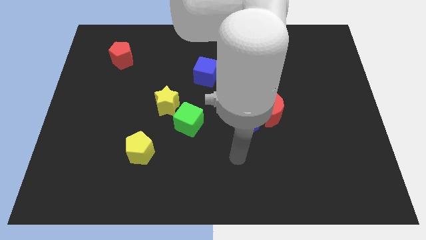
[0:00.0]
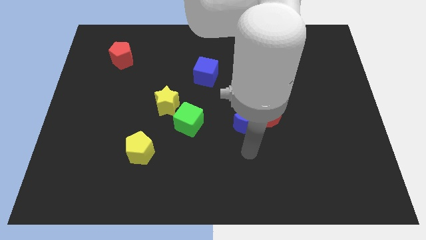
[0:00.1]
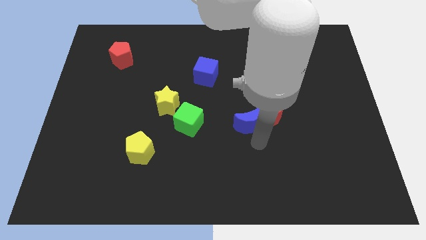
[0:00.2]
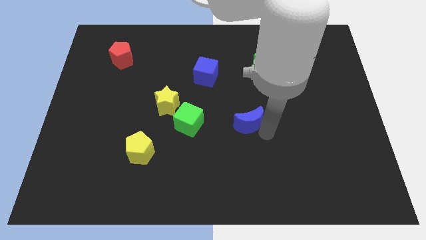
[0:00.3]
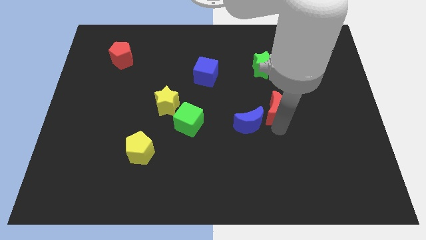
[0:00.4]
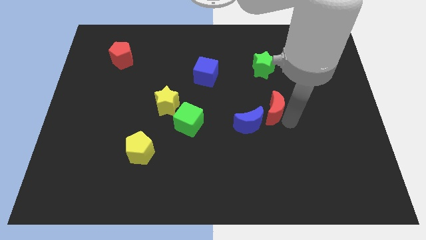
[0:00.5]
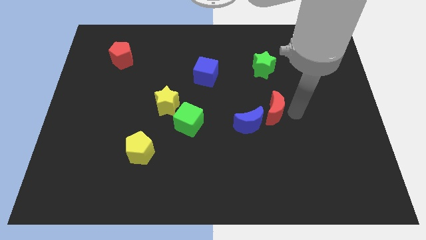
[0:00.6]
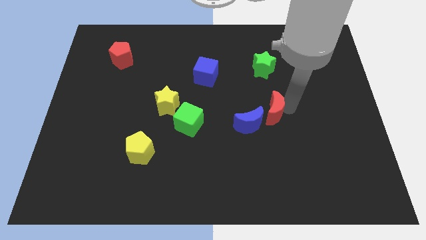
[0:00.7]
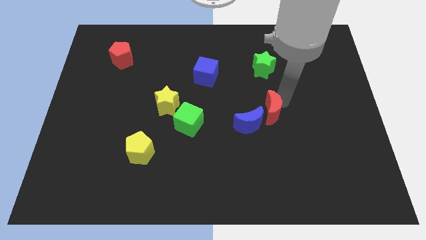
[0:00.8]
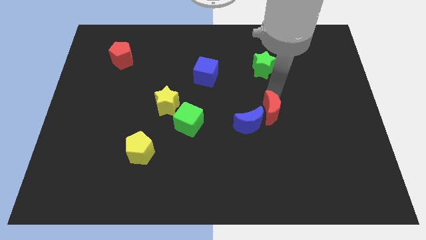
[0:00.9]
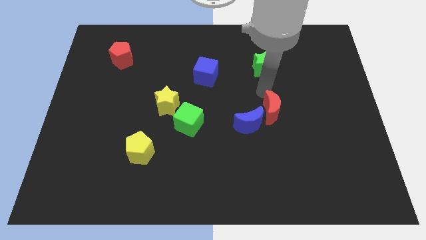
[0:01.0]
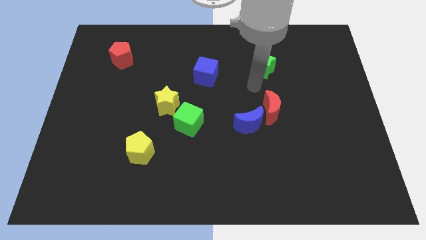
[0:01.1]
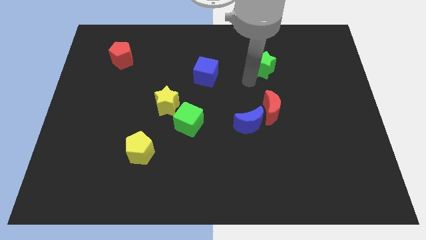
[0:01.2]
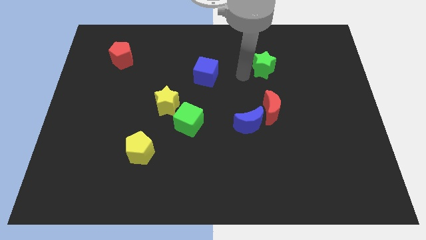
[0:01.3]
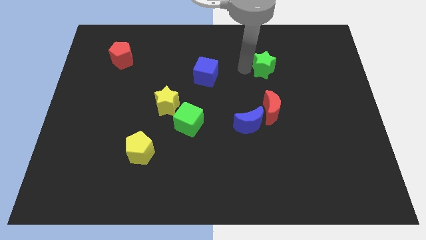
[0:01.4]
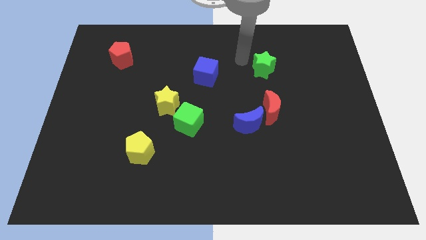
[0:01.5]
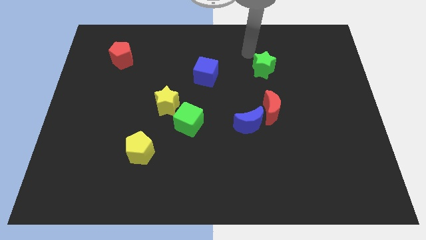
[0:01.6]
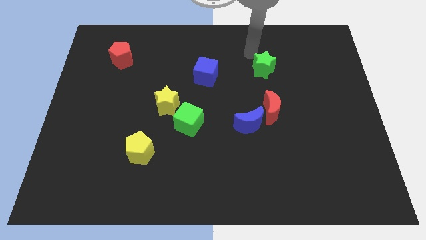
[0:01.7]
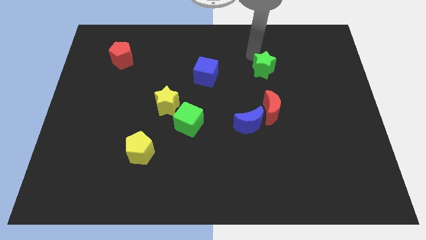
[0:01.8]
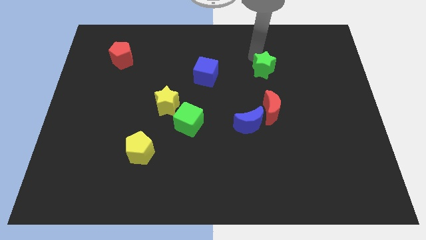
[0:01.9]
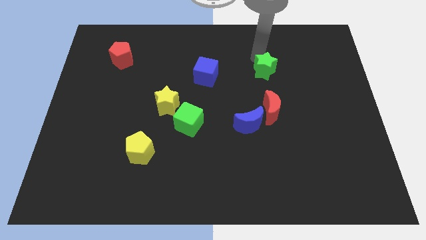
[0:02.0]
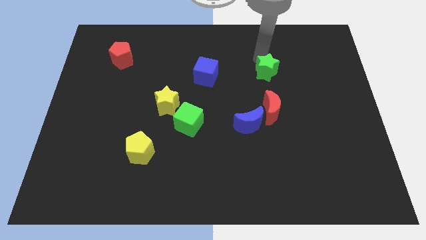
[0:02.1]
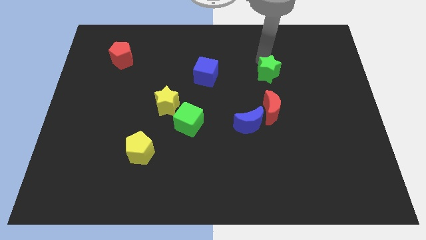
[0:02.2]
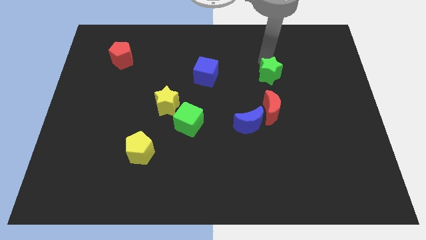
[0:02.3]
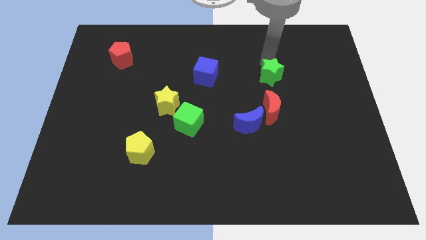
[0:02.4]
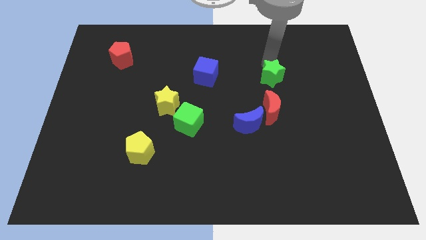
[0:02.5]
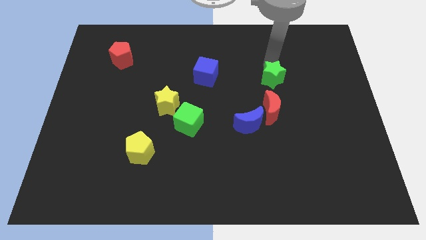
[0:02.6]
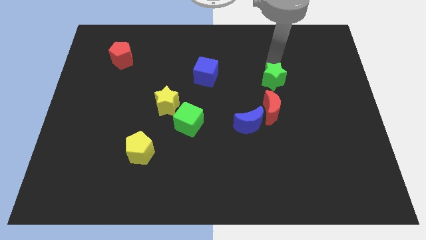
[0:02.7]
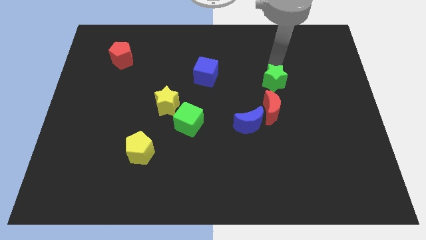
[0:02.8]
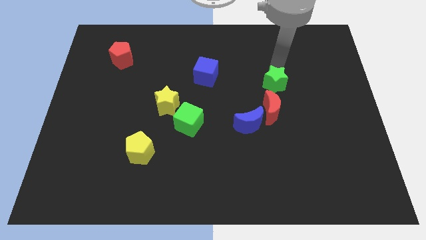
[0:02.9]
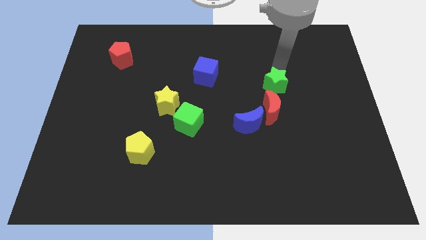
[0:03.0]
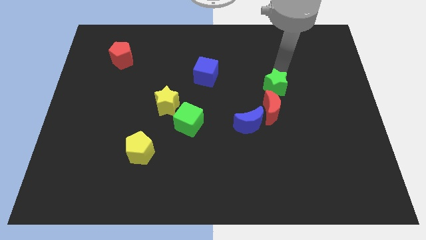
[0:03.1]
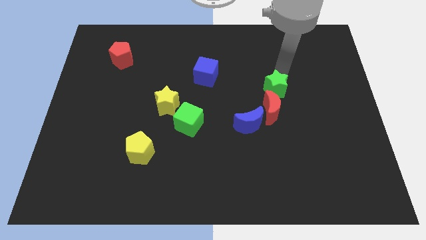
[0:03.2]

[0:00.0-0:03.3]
push the green star downwards slightly

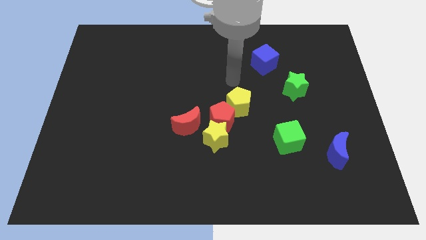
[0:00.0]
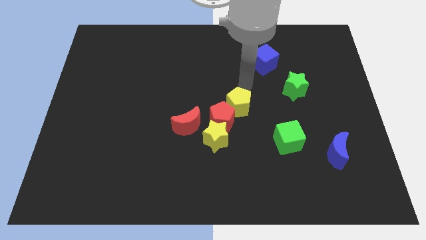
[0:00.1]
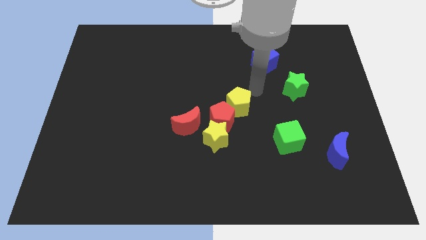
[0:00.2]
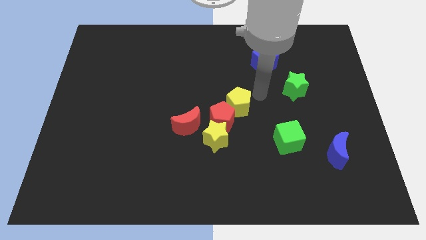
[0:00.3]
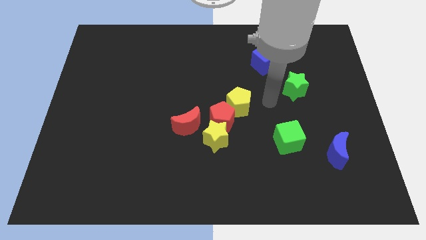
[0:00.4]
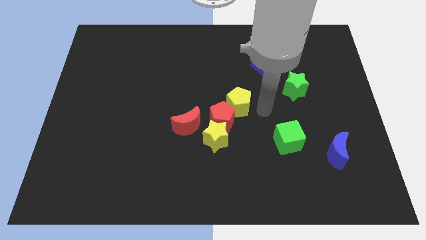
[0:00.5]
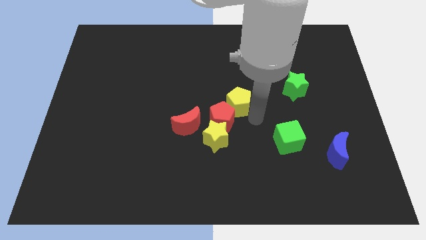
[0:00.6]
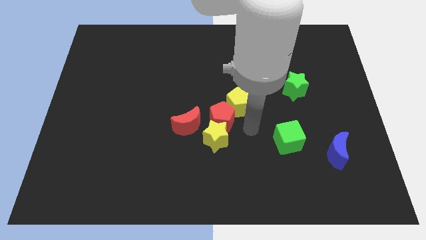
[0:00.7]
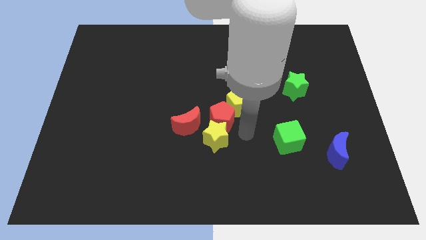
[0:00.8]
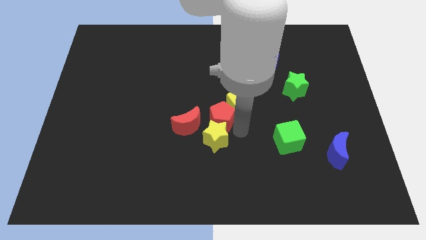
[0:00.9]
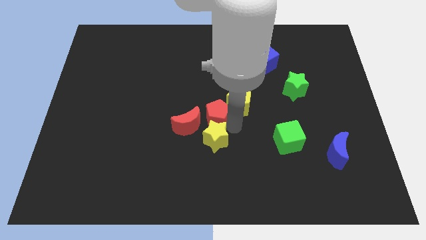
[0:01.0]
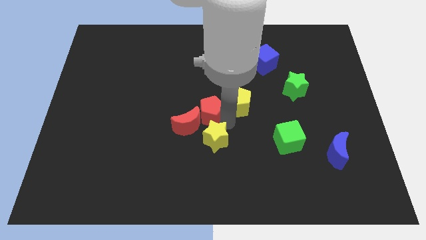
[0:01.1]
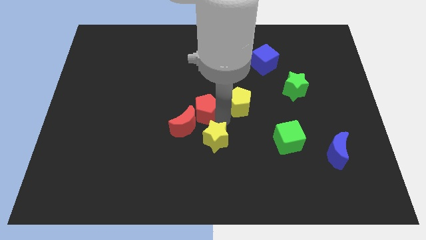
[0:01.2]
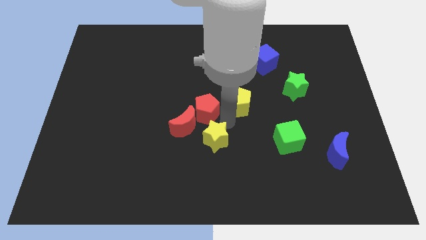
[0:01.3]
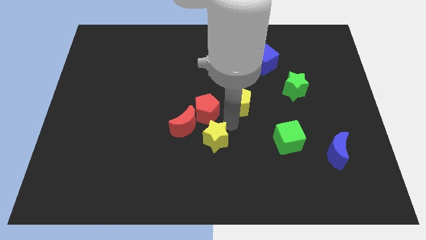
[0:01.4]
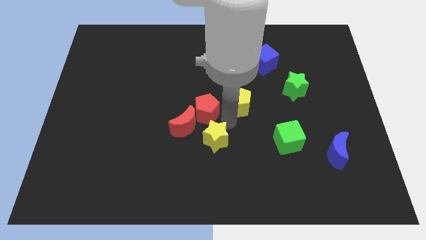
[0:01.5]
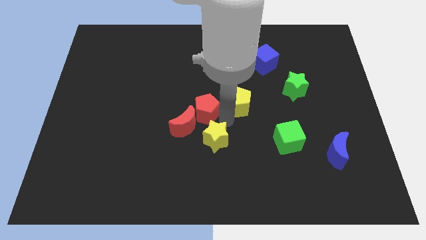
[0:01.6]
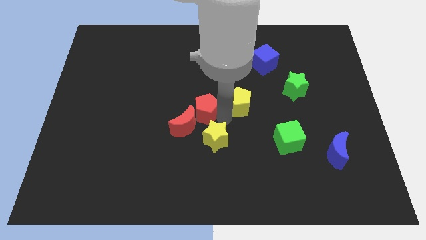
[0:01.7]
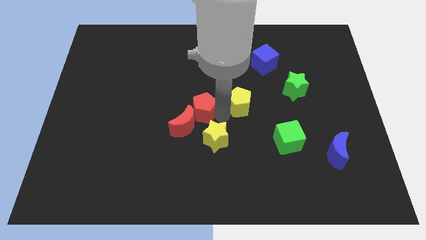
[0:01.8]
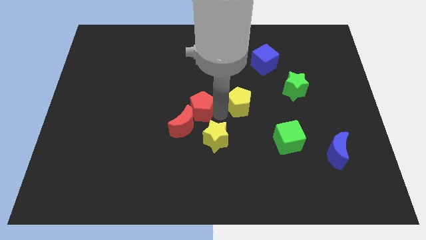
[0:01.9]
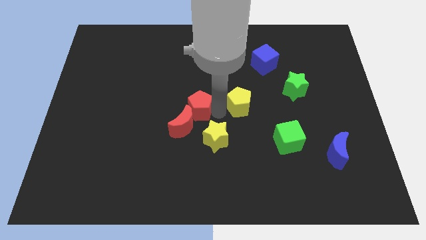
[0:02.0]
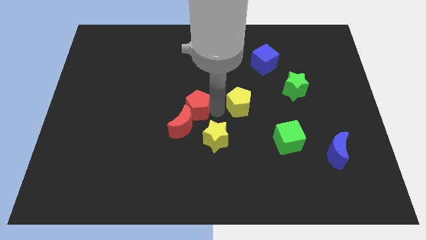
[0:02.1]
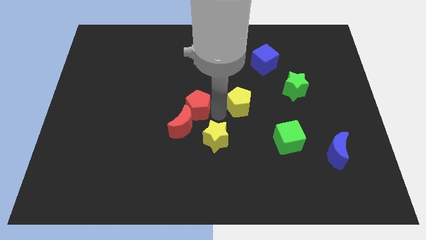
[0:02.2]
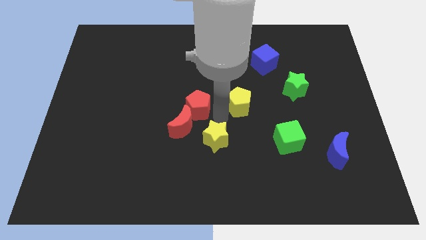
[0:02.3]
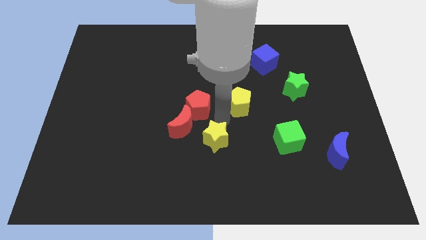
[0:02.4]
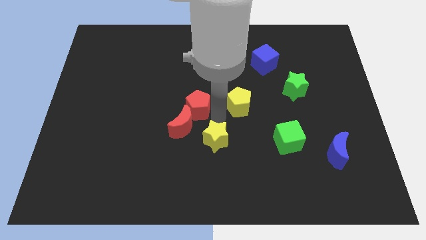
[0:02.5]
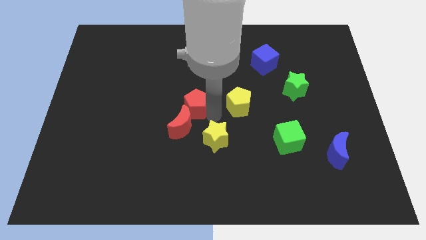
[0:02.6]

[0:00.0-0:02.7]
slightly push the red pentagon up and left diagonally

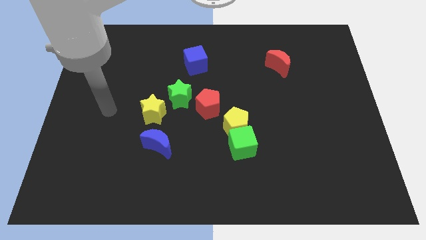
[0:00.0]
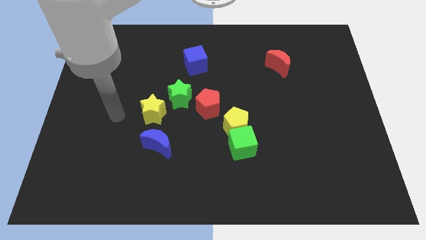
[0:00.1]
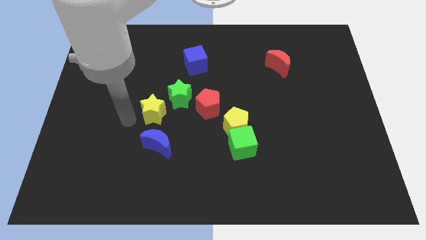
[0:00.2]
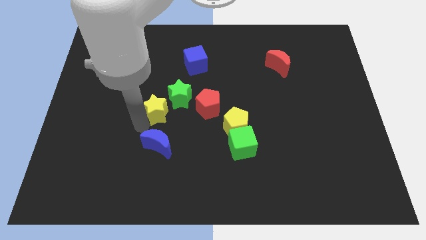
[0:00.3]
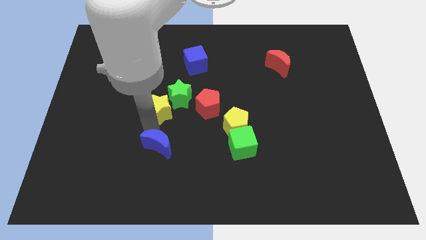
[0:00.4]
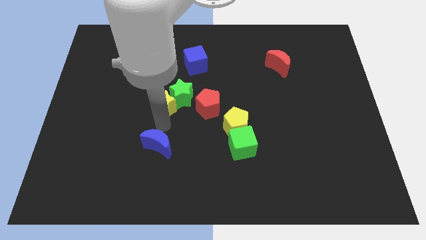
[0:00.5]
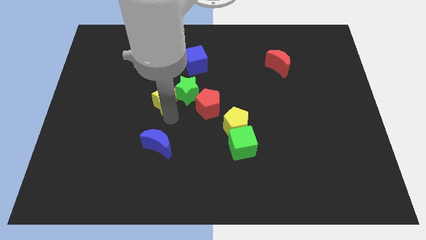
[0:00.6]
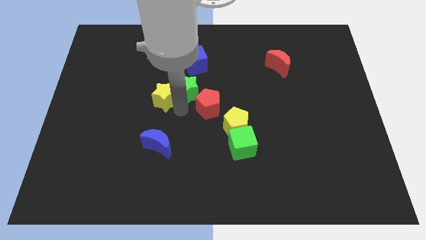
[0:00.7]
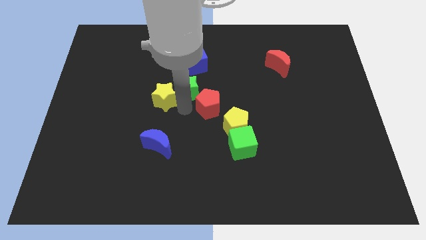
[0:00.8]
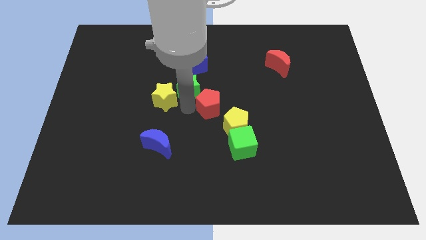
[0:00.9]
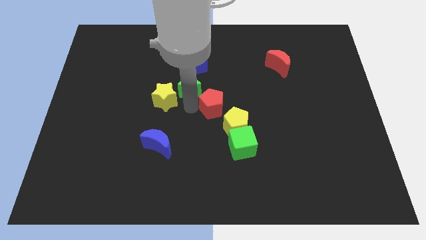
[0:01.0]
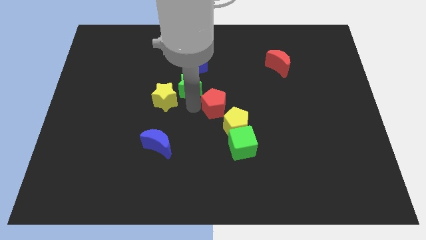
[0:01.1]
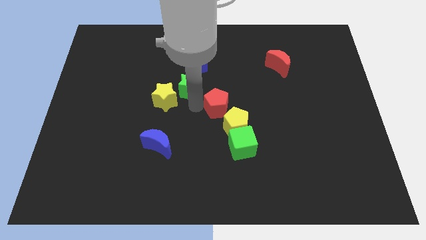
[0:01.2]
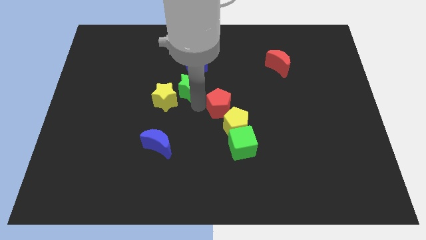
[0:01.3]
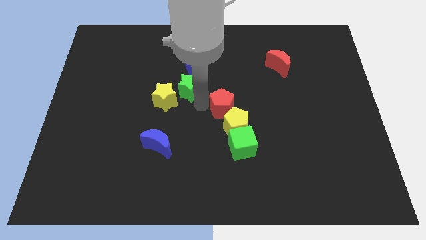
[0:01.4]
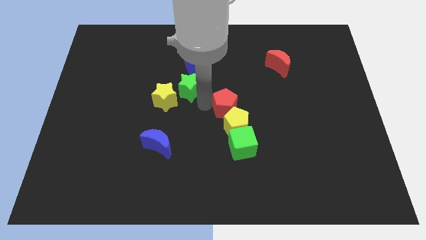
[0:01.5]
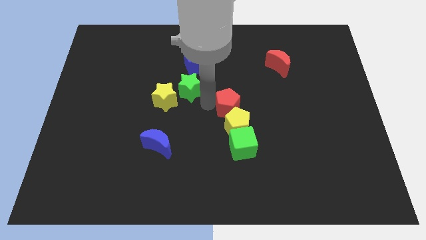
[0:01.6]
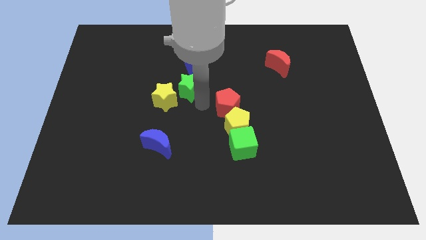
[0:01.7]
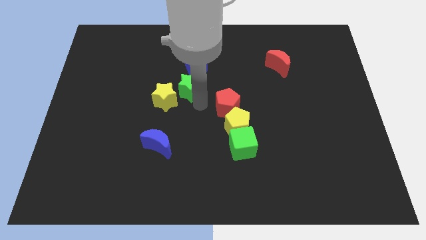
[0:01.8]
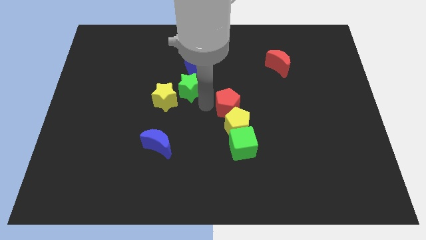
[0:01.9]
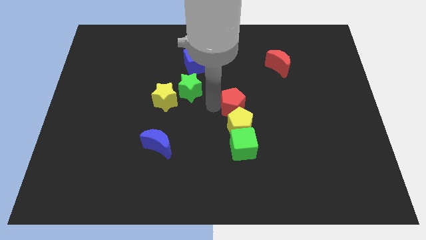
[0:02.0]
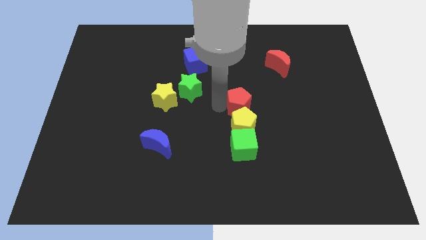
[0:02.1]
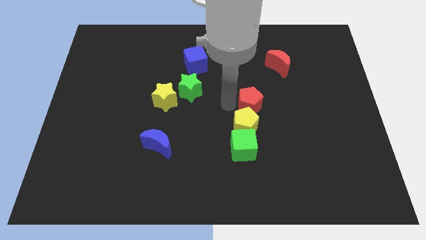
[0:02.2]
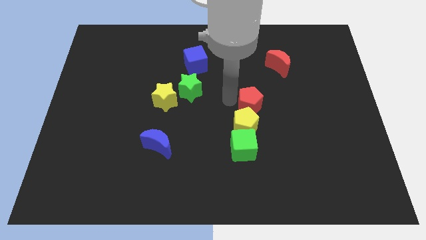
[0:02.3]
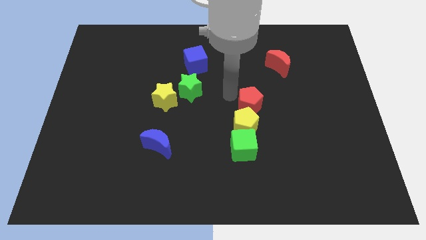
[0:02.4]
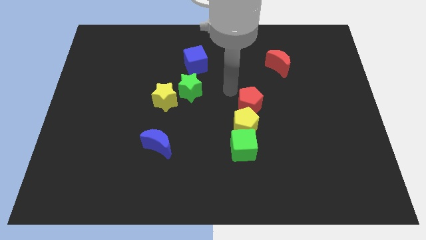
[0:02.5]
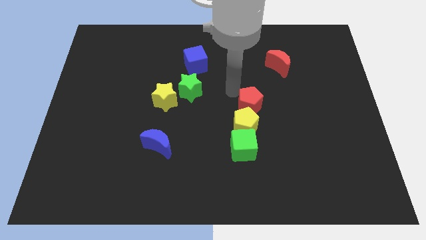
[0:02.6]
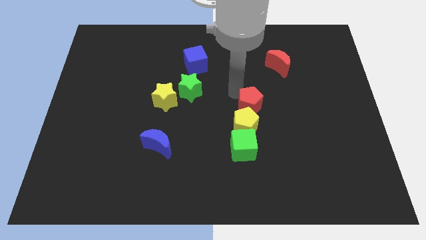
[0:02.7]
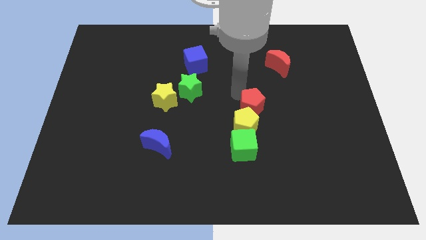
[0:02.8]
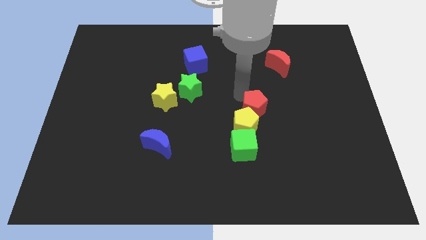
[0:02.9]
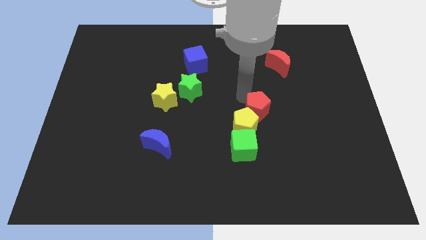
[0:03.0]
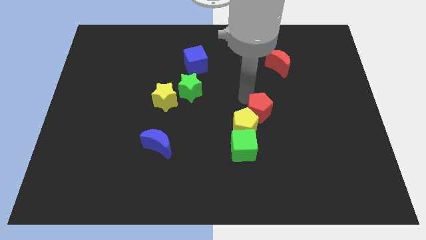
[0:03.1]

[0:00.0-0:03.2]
slide the red pentagon a little diagonally downwards and right
